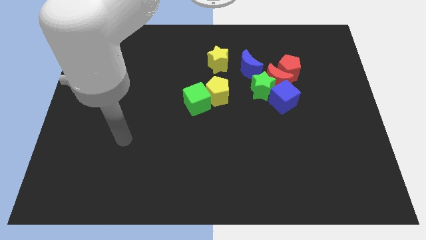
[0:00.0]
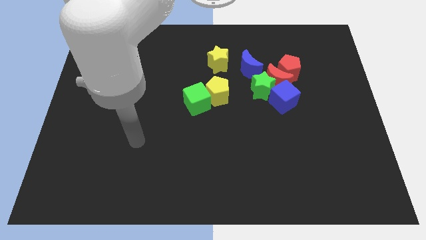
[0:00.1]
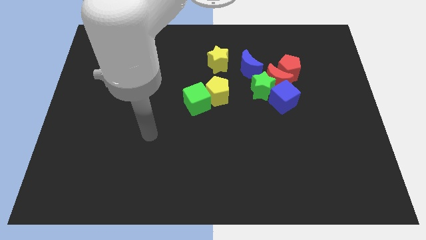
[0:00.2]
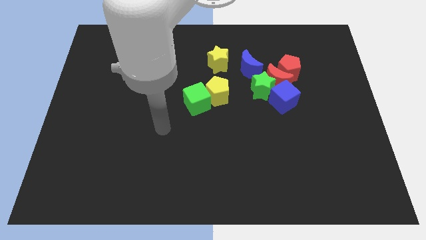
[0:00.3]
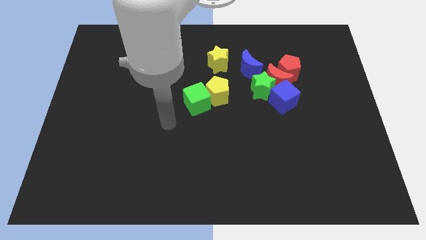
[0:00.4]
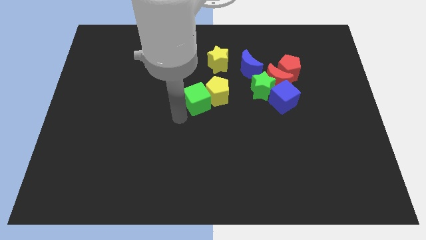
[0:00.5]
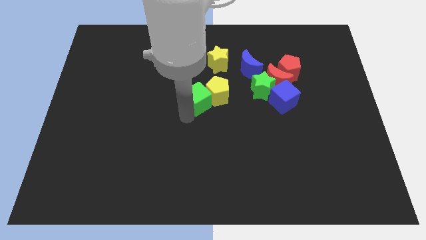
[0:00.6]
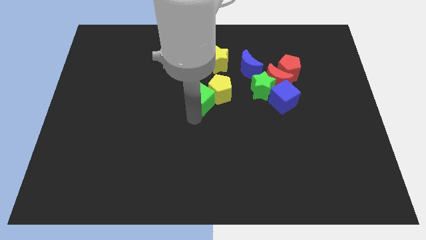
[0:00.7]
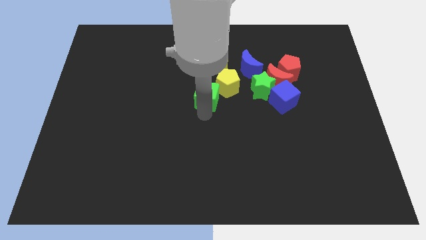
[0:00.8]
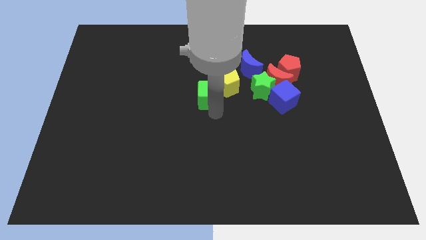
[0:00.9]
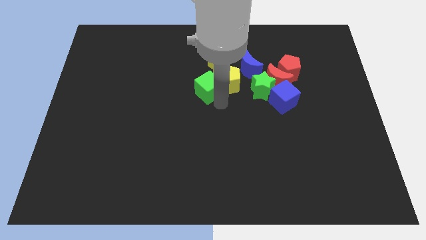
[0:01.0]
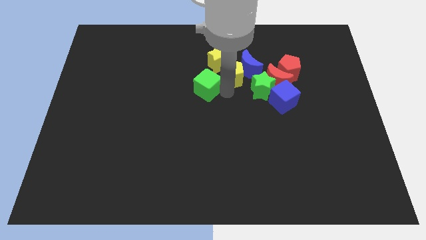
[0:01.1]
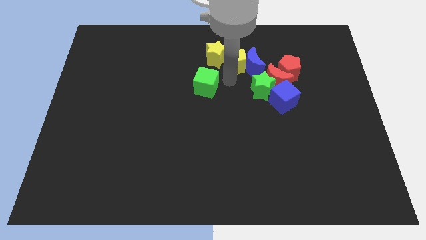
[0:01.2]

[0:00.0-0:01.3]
move the green cube away from the yellow pentagon

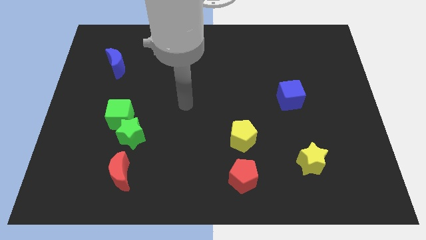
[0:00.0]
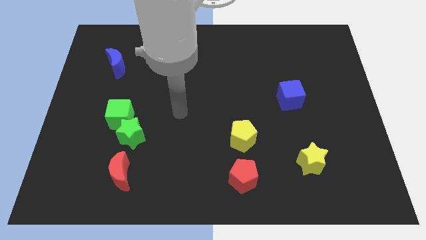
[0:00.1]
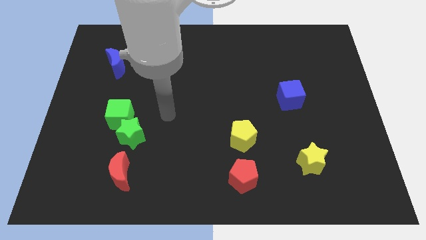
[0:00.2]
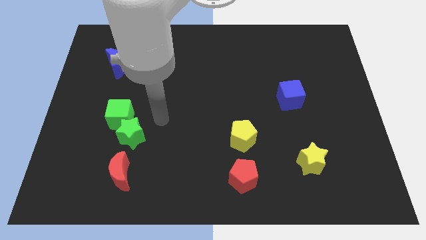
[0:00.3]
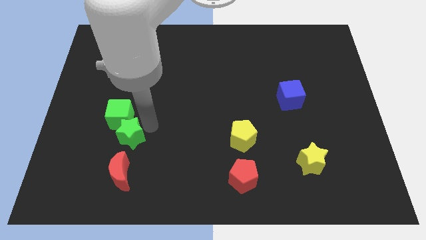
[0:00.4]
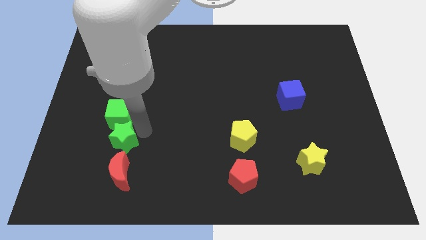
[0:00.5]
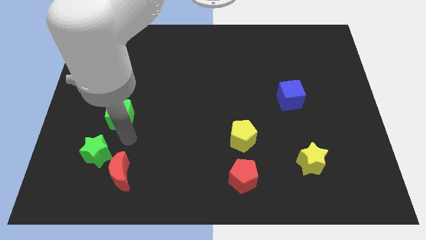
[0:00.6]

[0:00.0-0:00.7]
move the green cube away from the green star

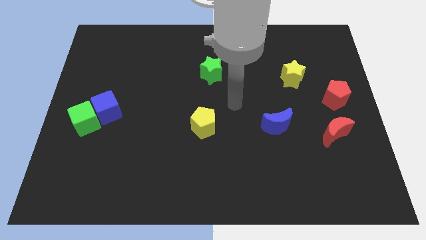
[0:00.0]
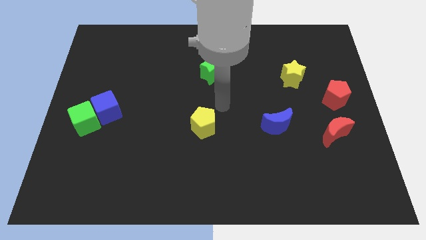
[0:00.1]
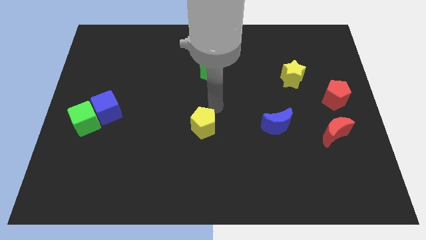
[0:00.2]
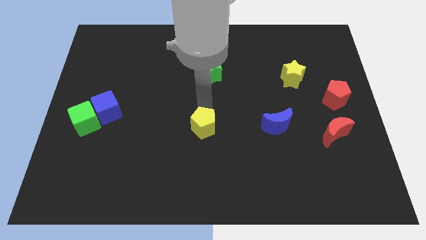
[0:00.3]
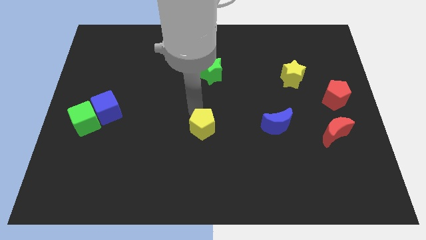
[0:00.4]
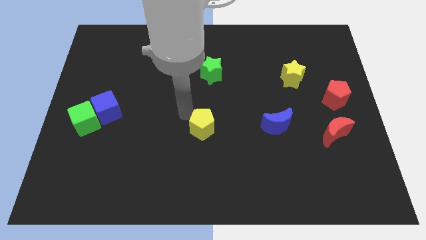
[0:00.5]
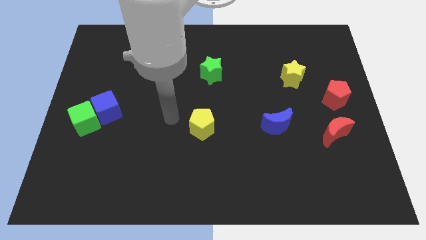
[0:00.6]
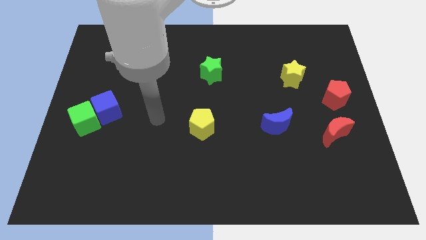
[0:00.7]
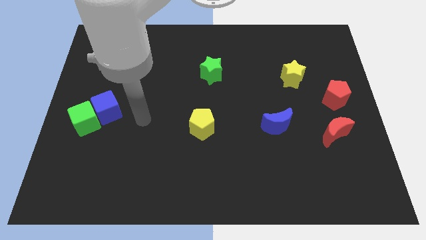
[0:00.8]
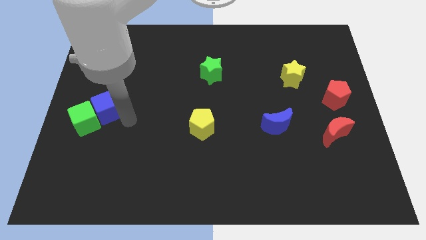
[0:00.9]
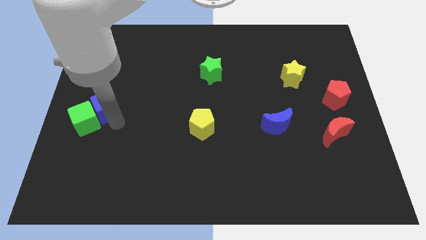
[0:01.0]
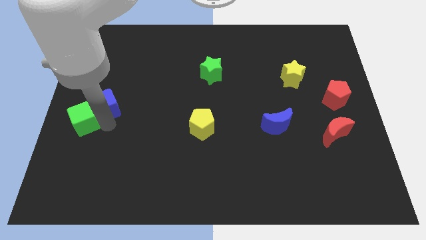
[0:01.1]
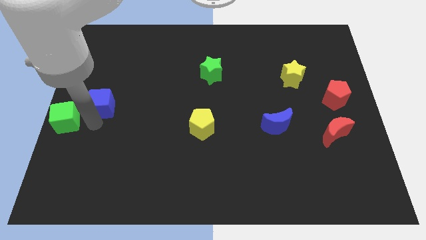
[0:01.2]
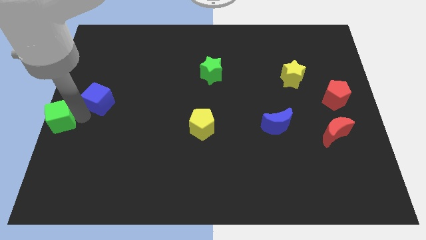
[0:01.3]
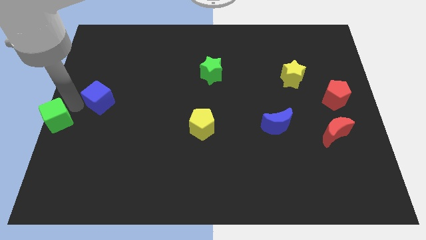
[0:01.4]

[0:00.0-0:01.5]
separate the blue cube from the green cube

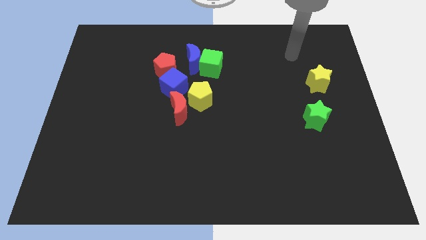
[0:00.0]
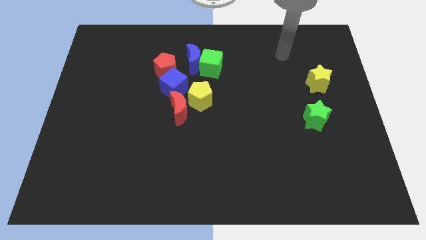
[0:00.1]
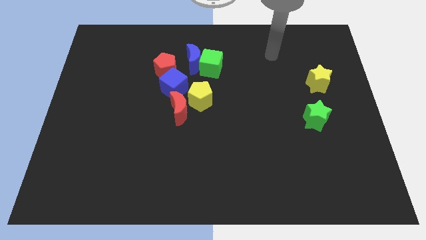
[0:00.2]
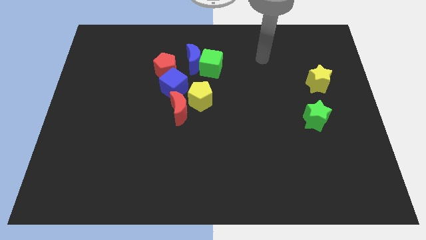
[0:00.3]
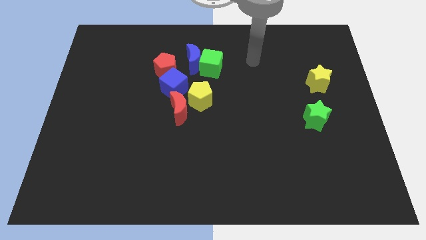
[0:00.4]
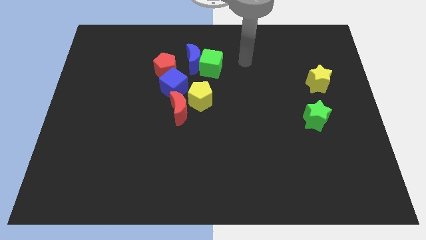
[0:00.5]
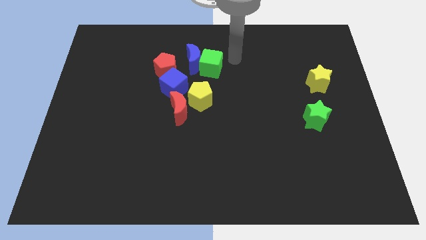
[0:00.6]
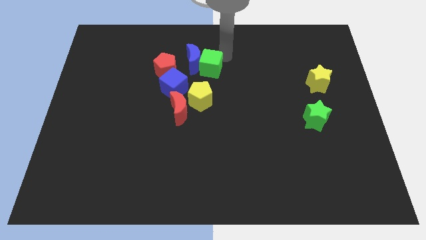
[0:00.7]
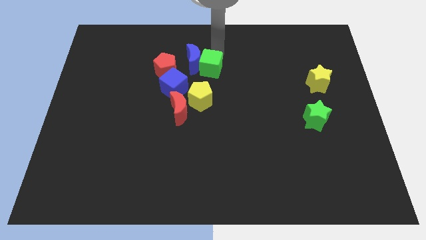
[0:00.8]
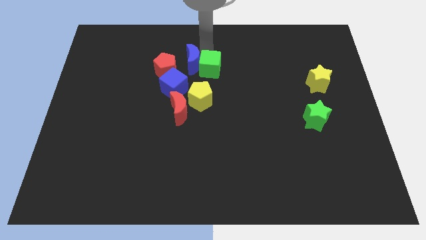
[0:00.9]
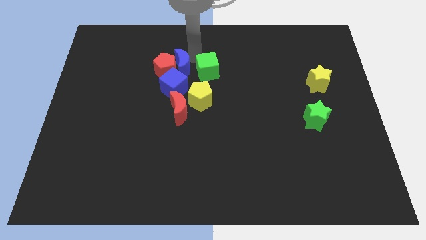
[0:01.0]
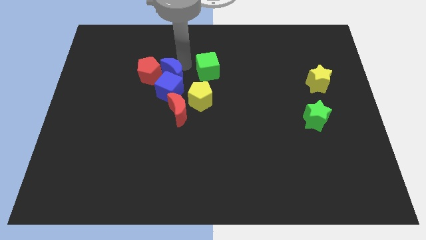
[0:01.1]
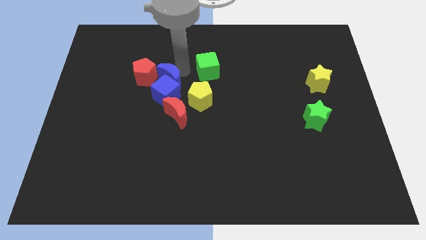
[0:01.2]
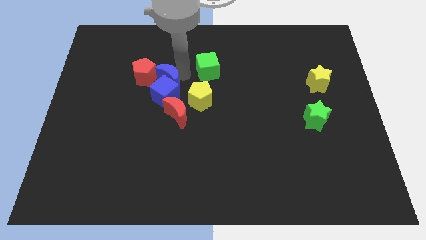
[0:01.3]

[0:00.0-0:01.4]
move the green cube away from the blue moon

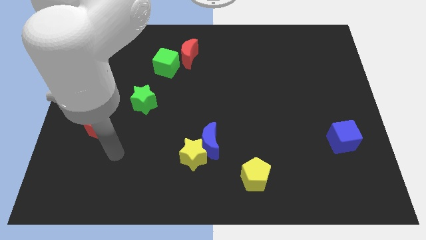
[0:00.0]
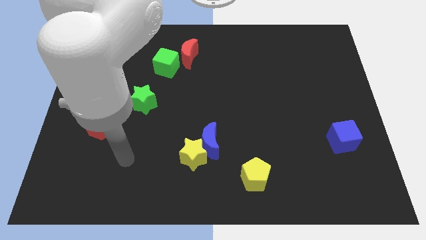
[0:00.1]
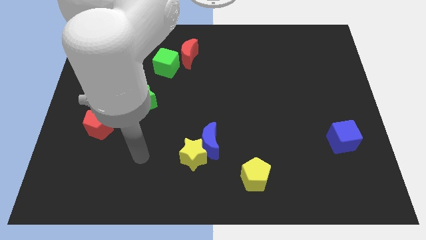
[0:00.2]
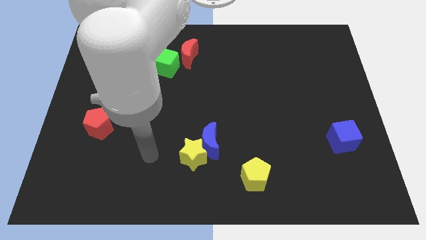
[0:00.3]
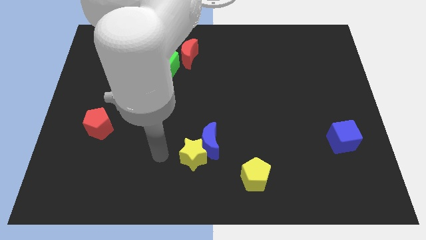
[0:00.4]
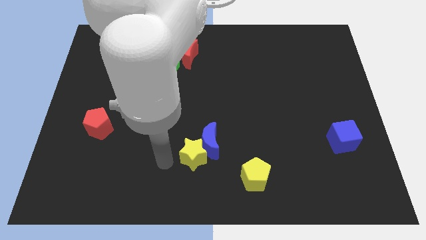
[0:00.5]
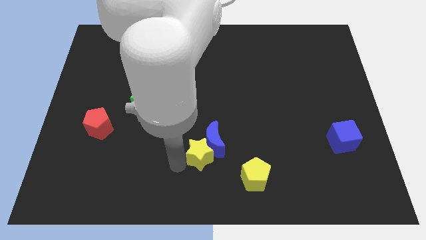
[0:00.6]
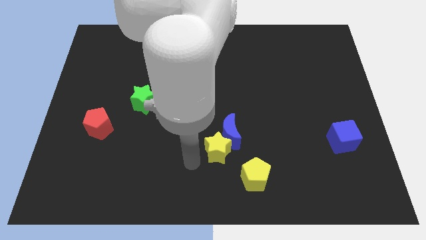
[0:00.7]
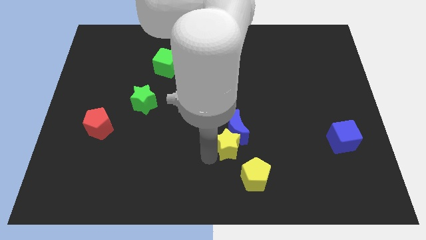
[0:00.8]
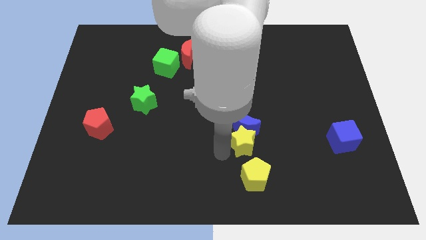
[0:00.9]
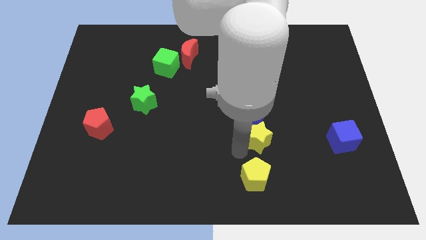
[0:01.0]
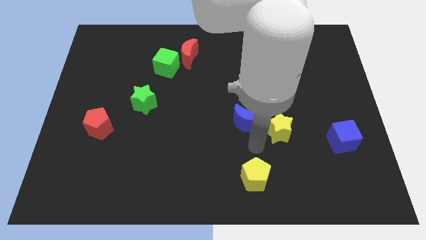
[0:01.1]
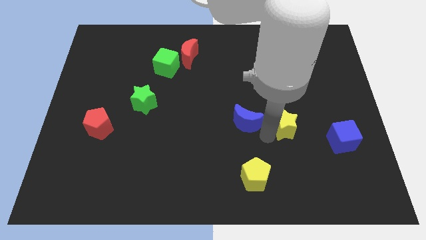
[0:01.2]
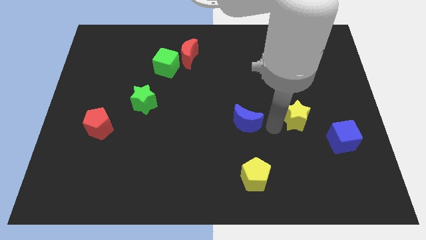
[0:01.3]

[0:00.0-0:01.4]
move the blue moon away from the yellow star

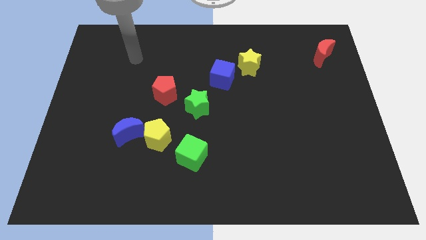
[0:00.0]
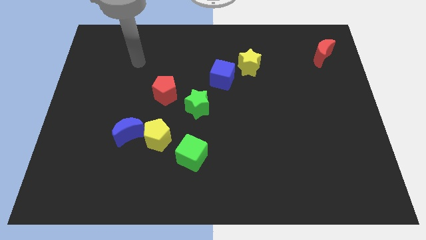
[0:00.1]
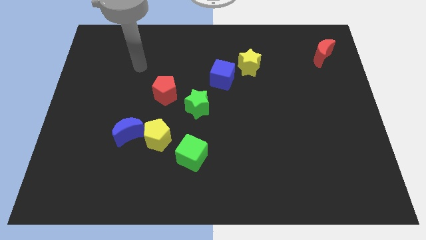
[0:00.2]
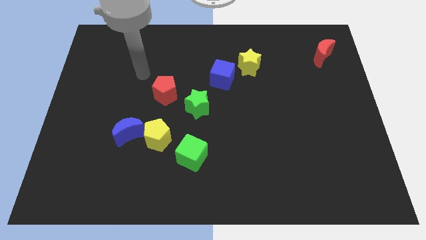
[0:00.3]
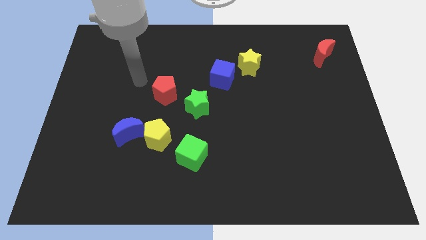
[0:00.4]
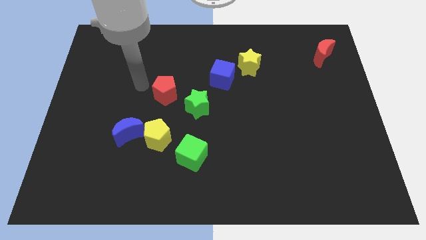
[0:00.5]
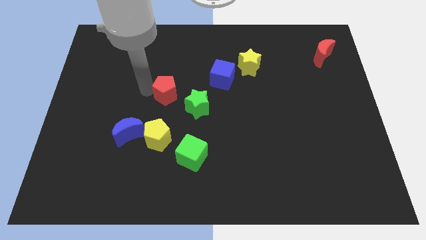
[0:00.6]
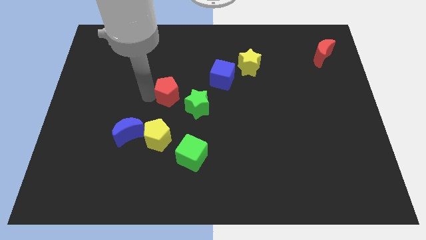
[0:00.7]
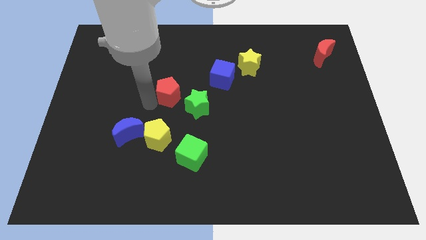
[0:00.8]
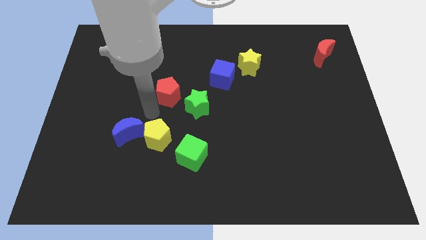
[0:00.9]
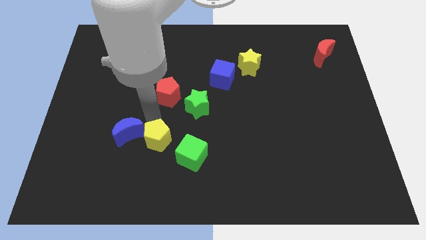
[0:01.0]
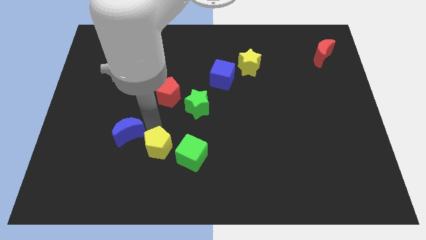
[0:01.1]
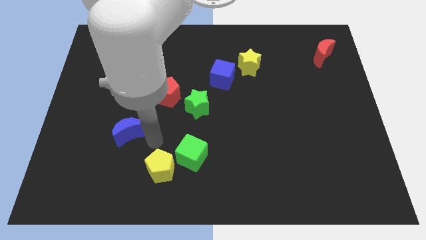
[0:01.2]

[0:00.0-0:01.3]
separate the blue moon from the yellow pentagon

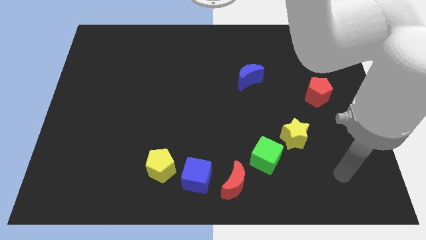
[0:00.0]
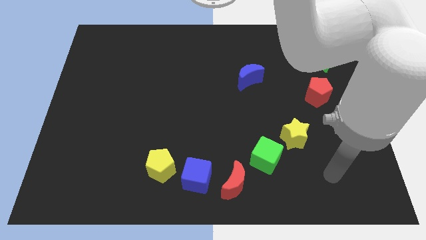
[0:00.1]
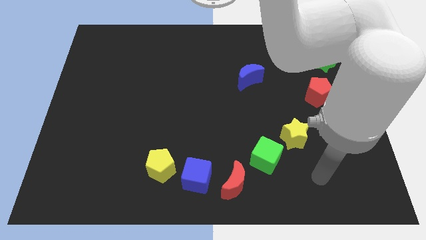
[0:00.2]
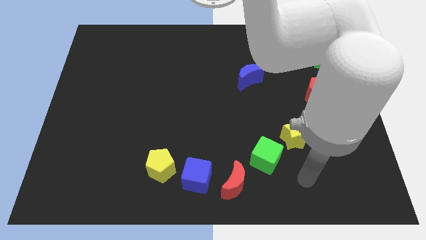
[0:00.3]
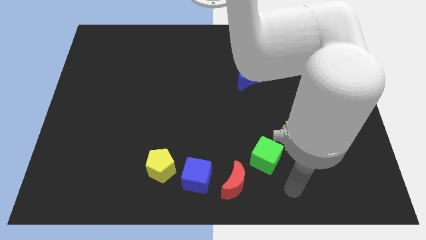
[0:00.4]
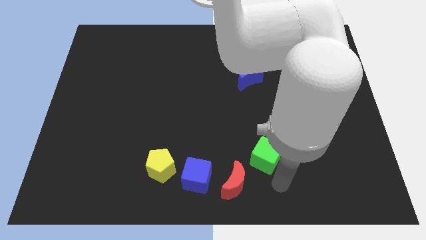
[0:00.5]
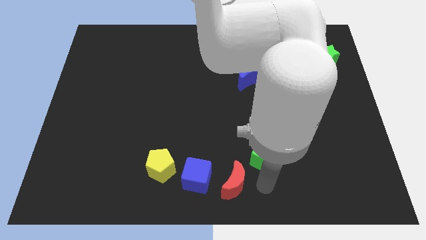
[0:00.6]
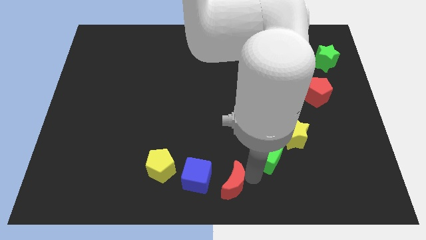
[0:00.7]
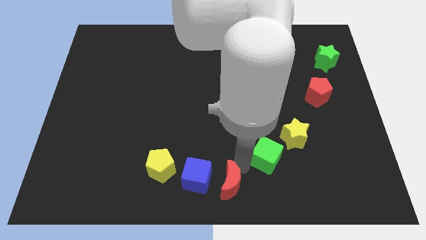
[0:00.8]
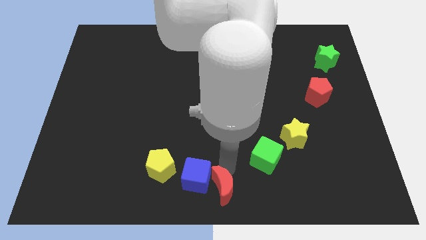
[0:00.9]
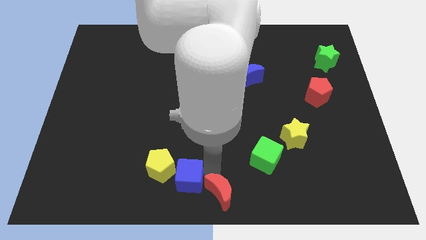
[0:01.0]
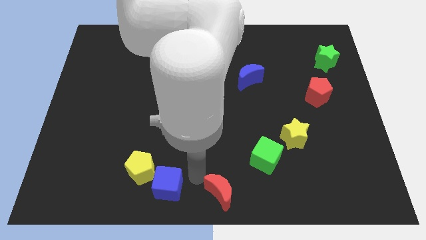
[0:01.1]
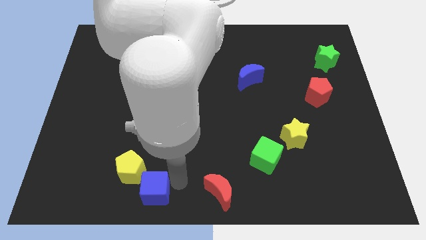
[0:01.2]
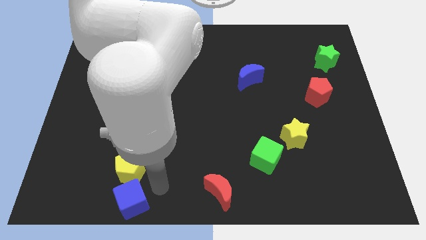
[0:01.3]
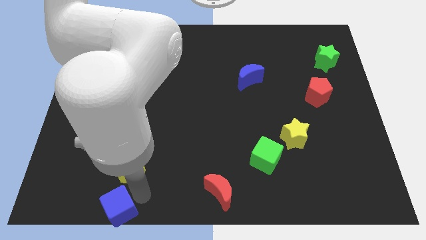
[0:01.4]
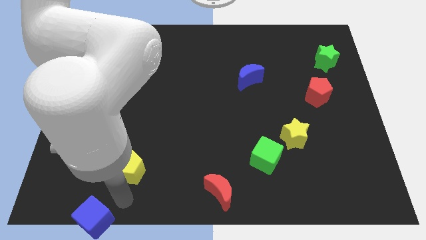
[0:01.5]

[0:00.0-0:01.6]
move the yellow pentagon away from the blue cube

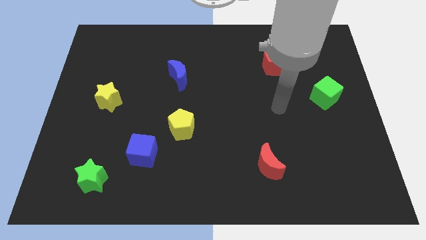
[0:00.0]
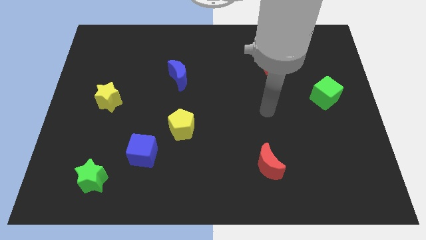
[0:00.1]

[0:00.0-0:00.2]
move the blue cube away from the yellow pentagon
